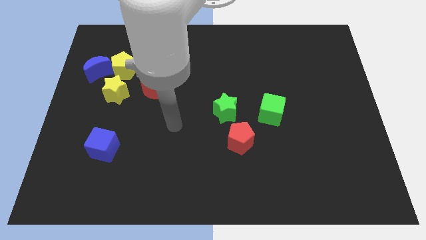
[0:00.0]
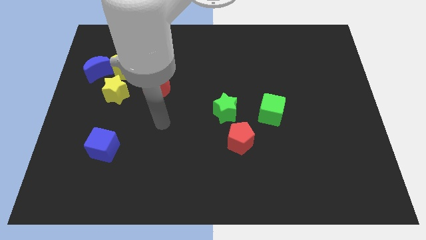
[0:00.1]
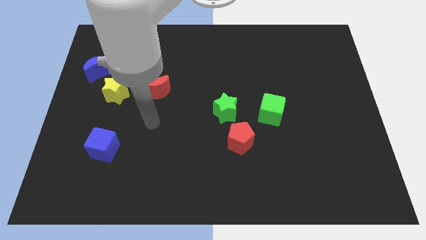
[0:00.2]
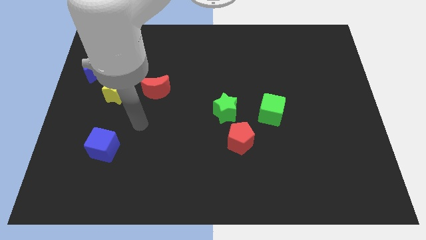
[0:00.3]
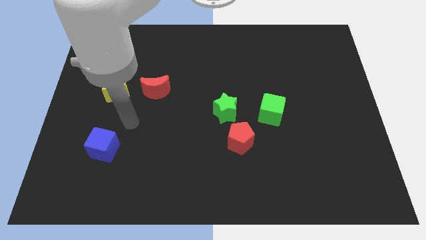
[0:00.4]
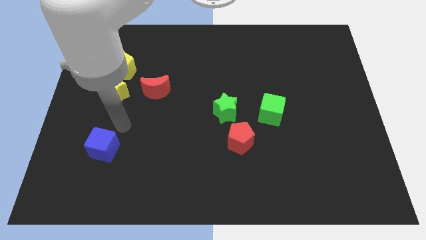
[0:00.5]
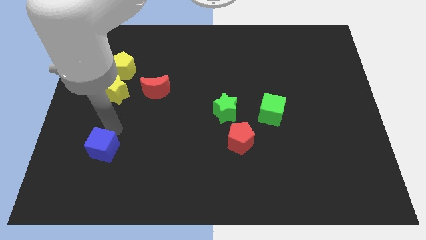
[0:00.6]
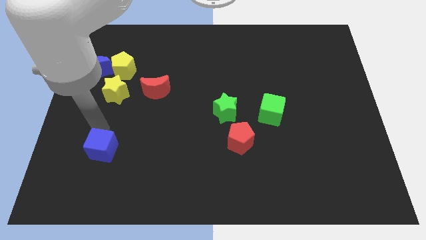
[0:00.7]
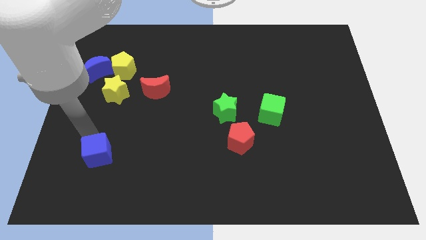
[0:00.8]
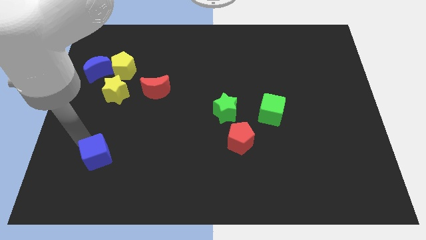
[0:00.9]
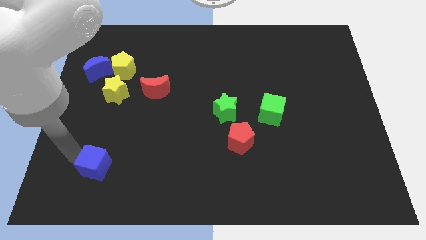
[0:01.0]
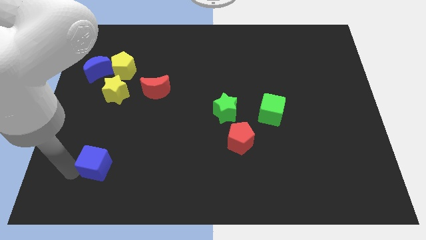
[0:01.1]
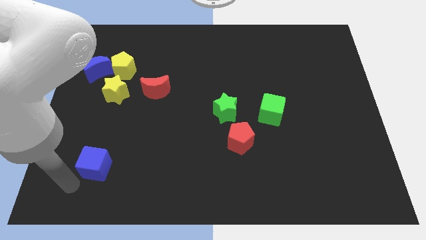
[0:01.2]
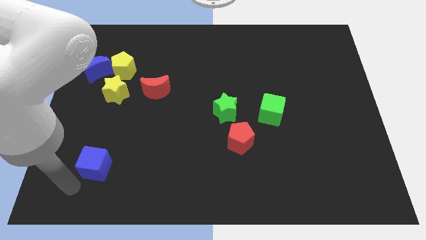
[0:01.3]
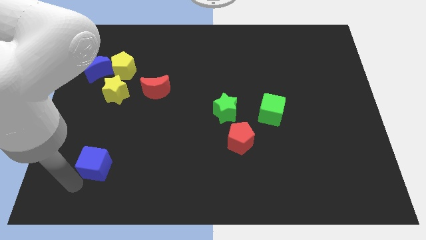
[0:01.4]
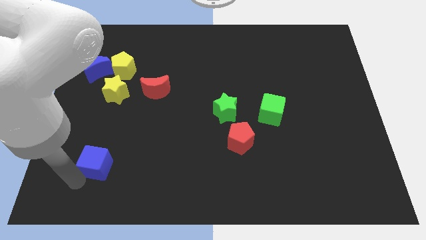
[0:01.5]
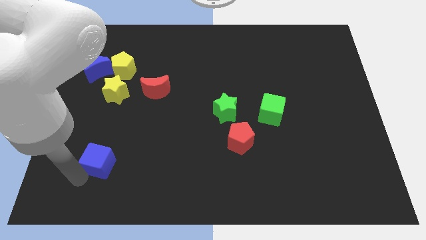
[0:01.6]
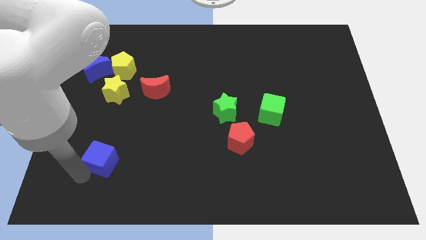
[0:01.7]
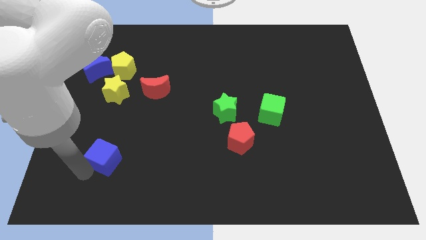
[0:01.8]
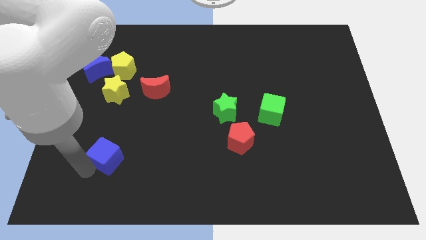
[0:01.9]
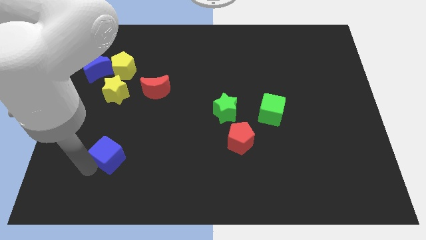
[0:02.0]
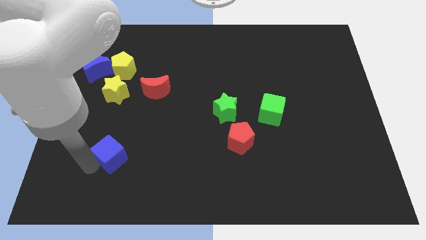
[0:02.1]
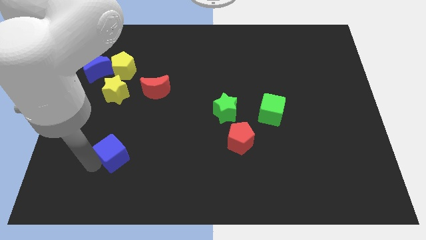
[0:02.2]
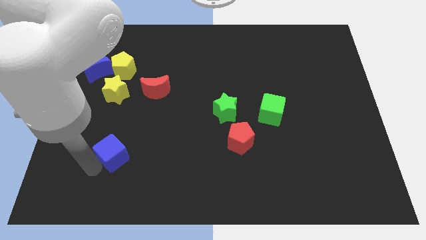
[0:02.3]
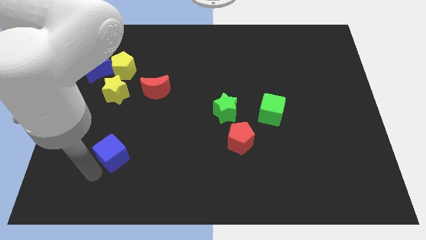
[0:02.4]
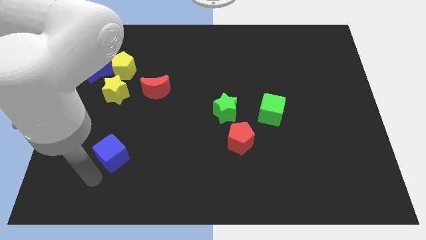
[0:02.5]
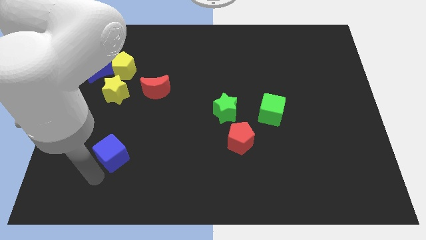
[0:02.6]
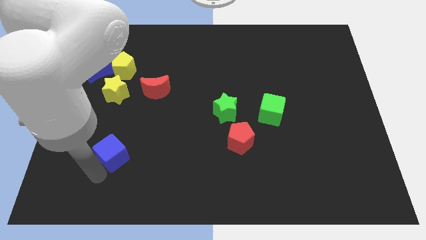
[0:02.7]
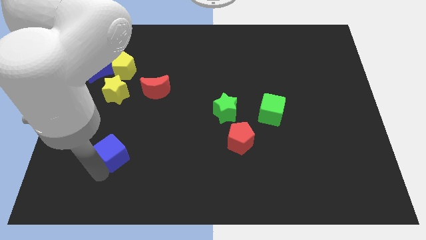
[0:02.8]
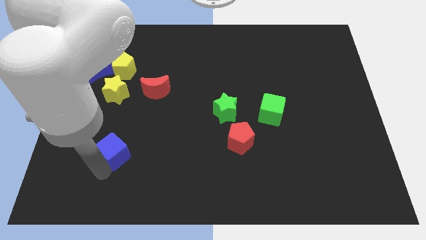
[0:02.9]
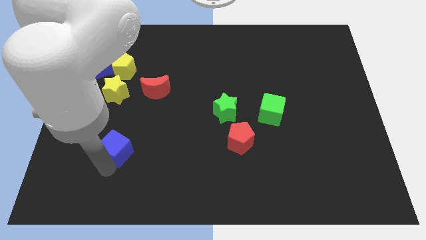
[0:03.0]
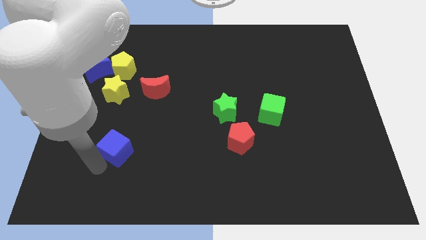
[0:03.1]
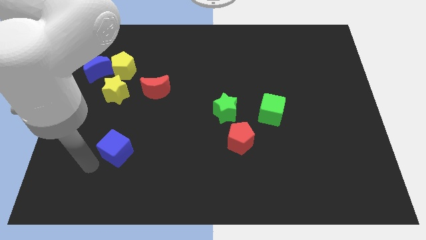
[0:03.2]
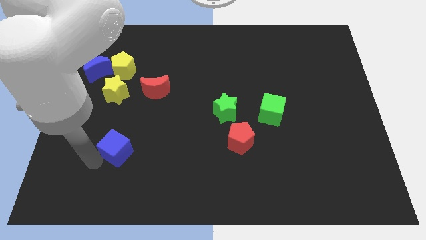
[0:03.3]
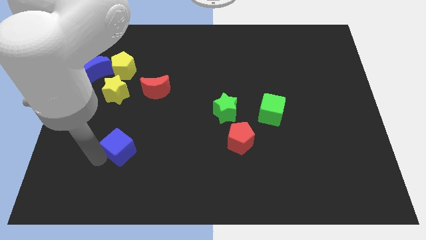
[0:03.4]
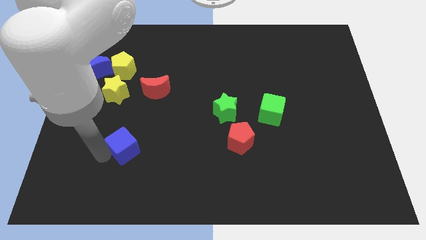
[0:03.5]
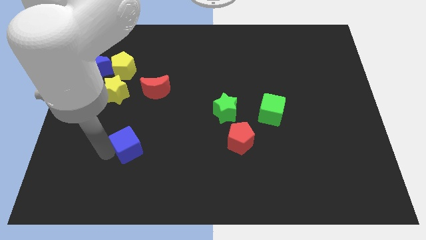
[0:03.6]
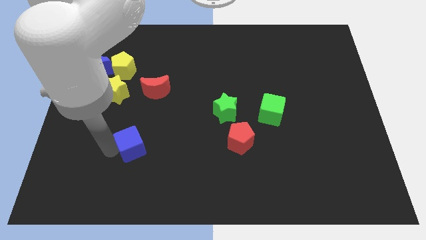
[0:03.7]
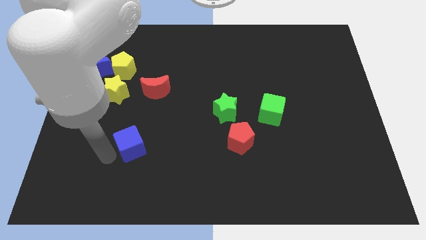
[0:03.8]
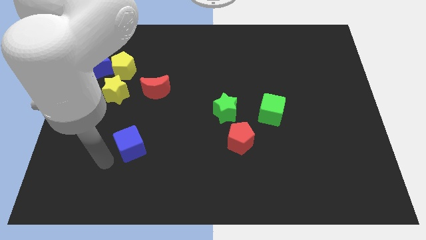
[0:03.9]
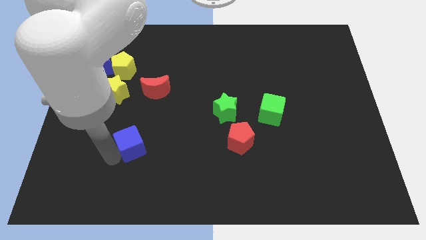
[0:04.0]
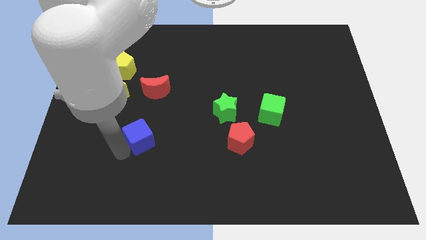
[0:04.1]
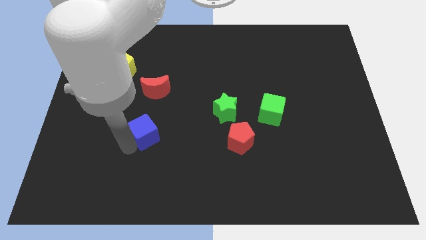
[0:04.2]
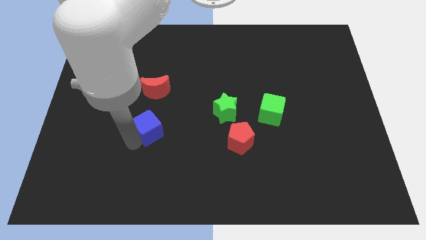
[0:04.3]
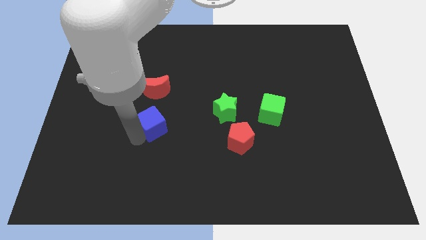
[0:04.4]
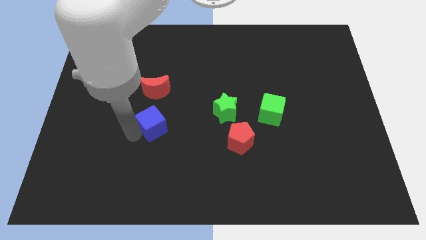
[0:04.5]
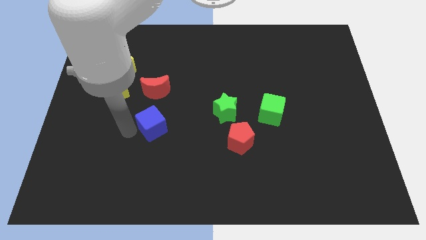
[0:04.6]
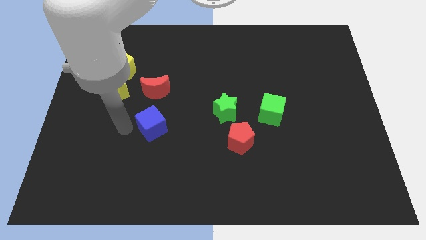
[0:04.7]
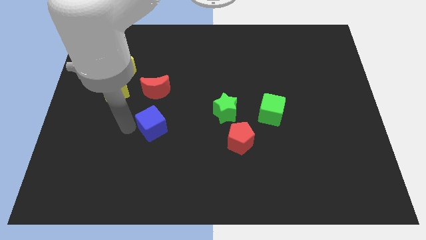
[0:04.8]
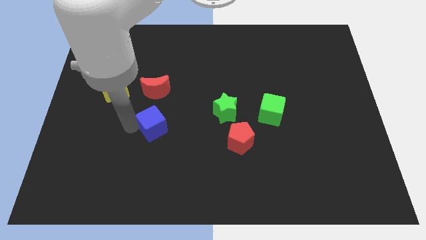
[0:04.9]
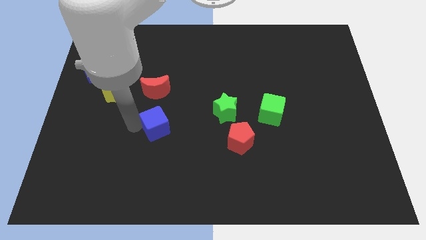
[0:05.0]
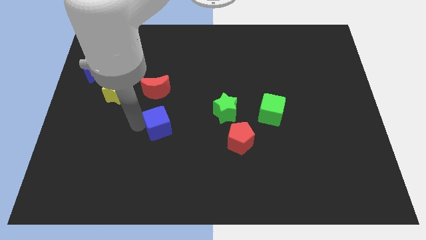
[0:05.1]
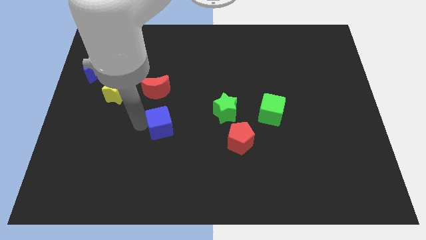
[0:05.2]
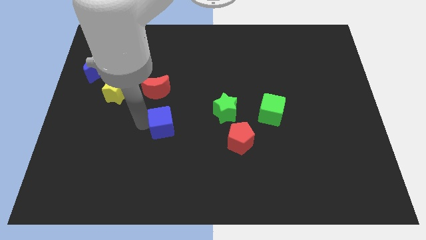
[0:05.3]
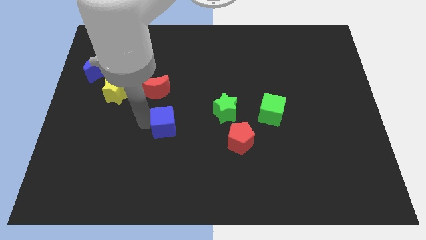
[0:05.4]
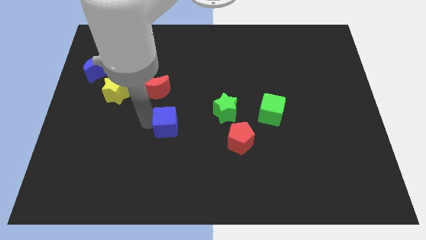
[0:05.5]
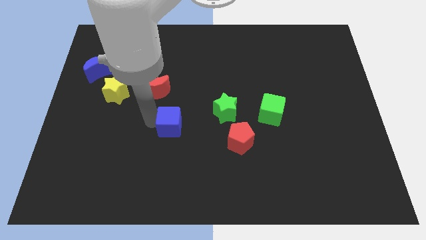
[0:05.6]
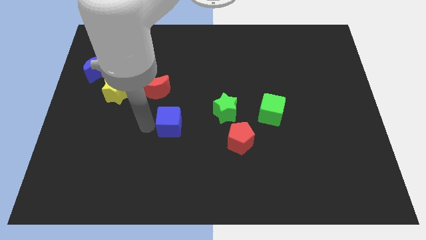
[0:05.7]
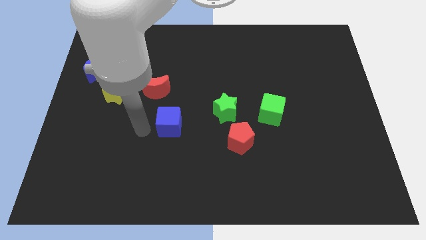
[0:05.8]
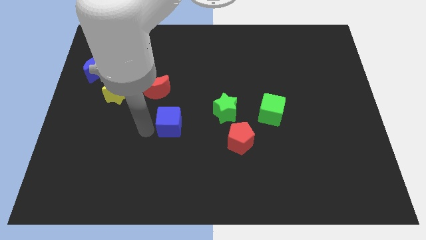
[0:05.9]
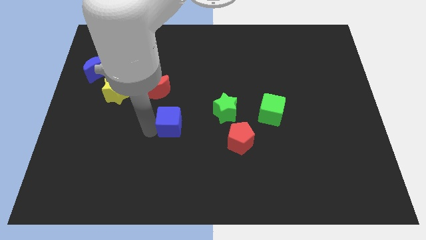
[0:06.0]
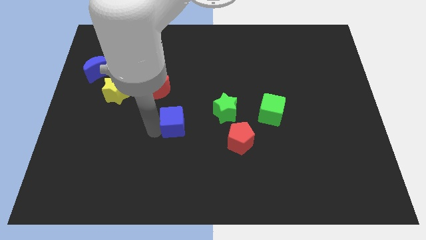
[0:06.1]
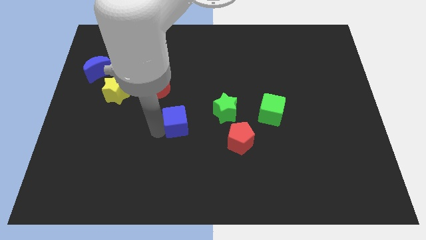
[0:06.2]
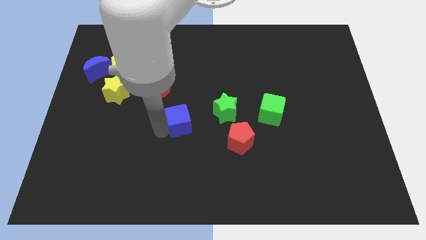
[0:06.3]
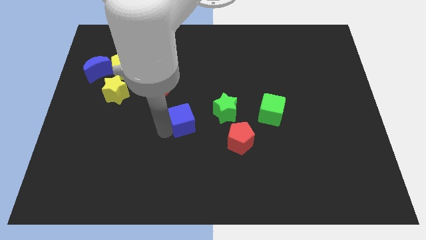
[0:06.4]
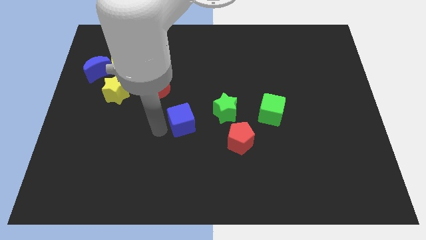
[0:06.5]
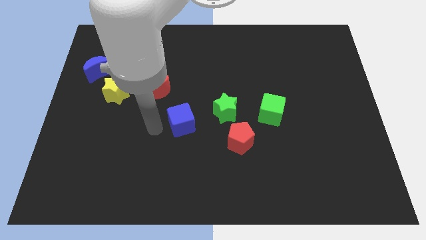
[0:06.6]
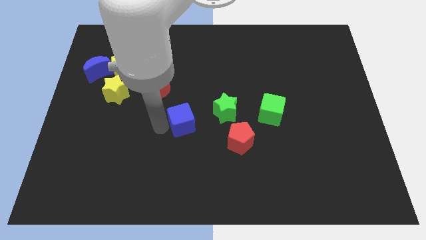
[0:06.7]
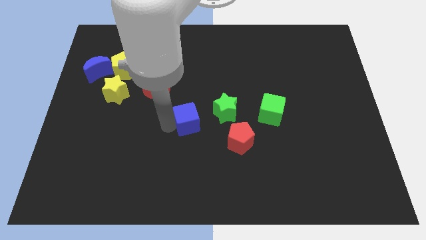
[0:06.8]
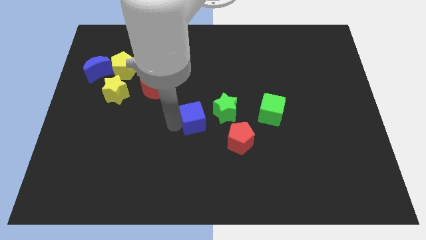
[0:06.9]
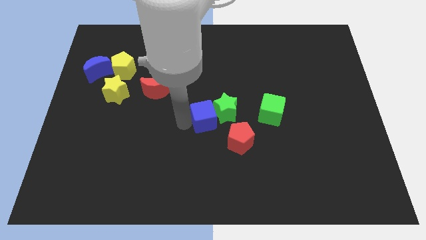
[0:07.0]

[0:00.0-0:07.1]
slide the blue cube to the left side of the green cube

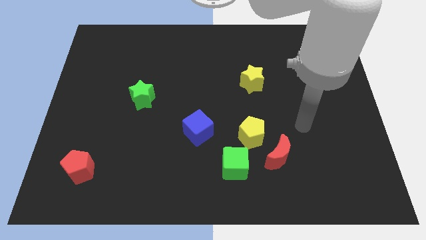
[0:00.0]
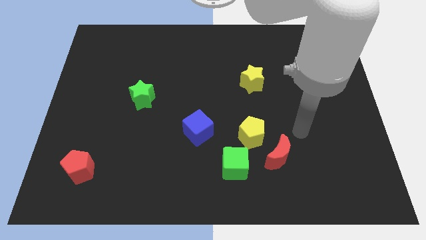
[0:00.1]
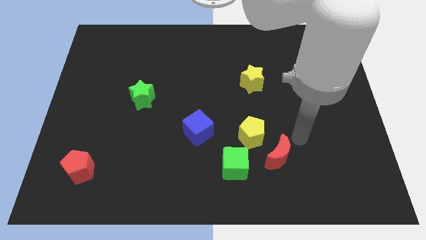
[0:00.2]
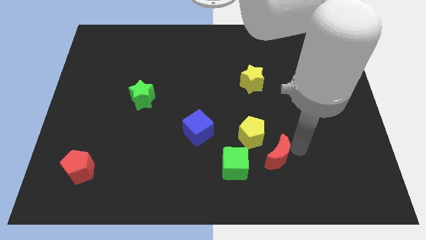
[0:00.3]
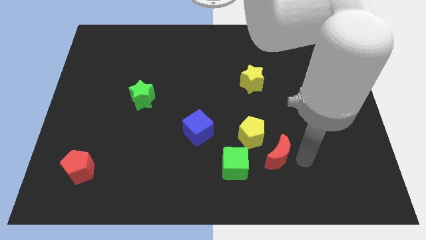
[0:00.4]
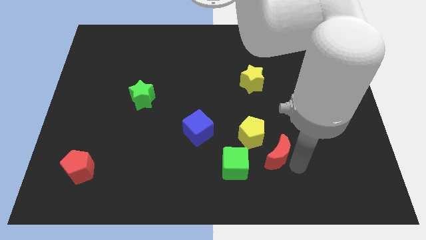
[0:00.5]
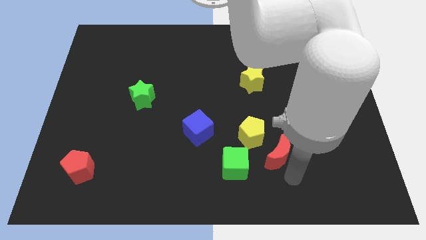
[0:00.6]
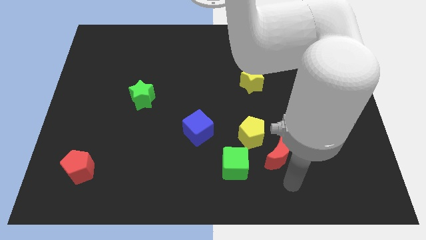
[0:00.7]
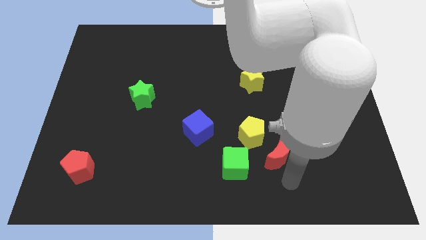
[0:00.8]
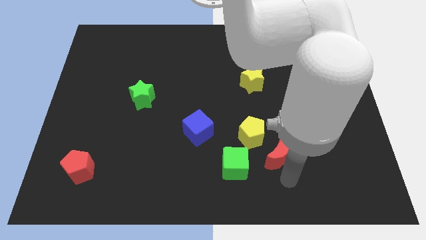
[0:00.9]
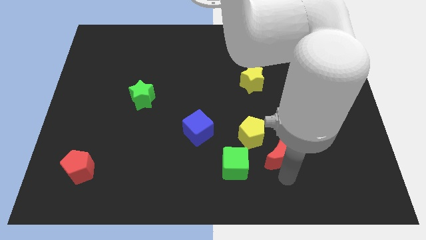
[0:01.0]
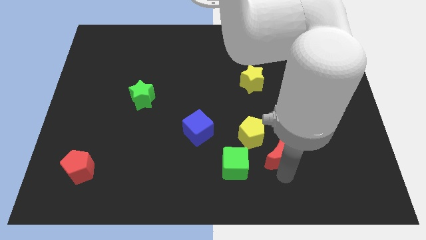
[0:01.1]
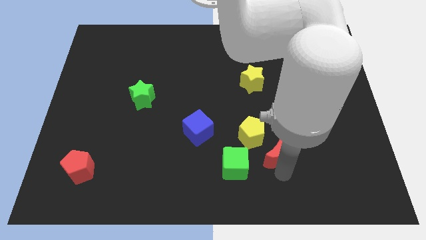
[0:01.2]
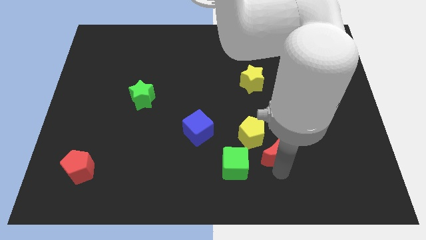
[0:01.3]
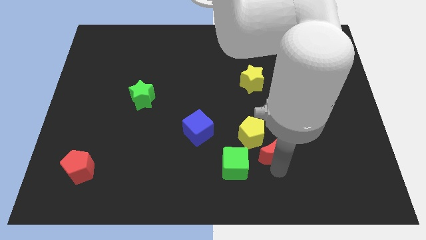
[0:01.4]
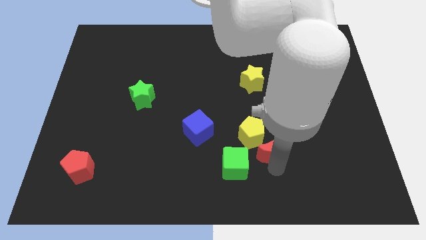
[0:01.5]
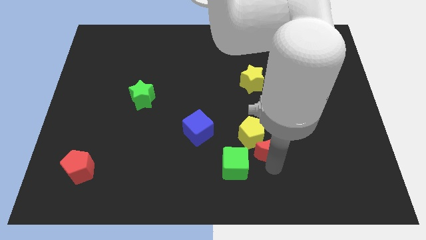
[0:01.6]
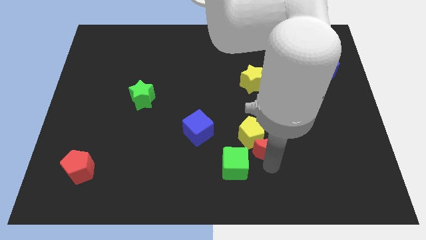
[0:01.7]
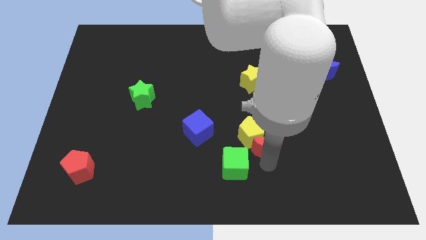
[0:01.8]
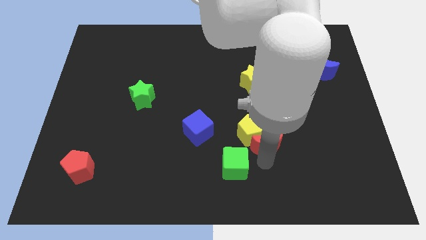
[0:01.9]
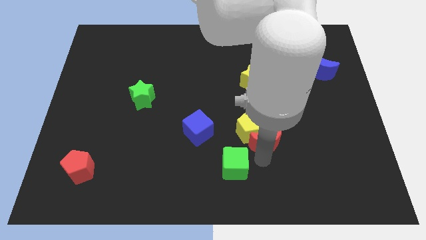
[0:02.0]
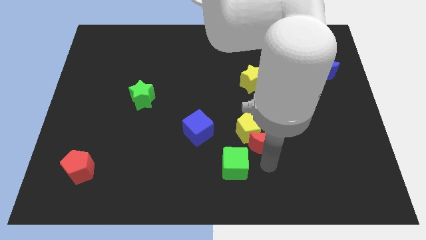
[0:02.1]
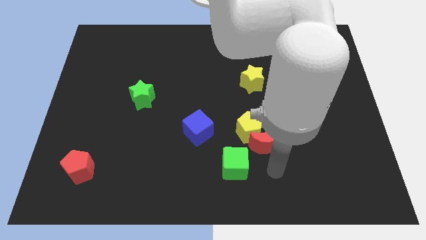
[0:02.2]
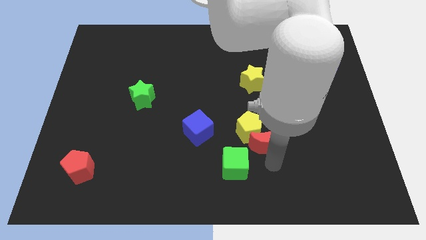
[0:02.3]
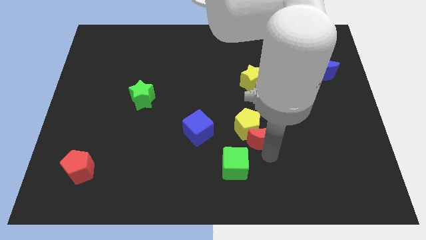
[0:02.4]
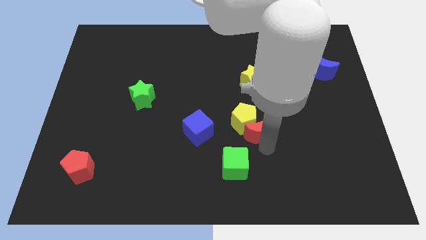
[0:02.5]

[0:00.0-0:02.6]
slide the red moon below the yellow star
